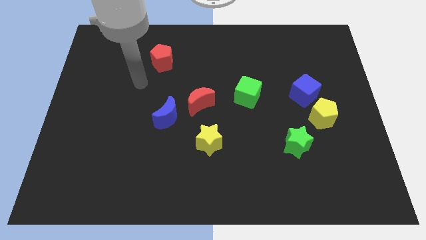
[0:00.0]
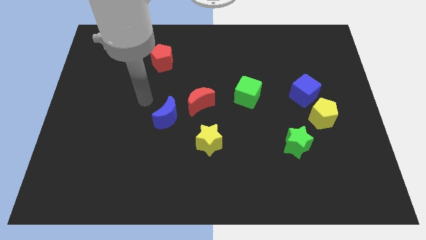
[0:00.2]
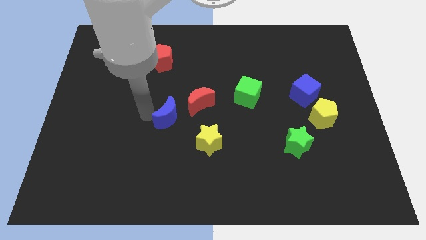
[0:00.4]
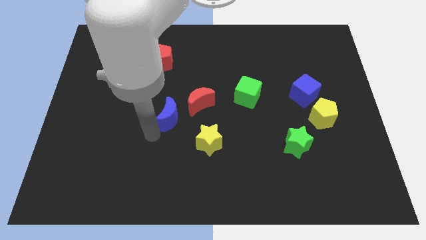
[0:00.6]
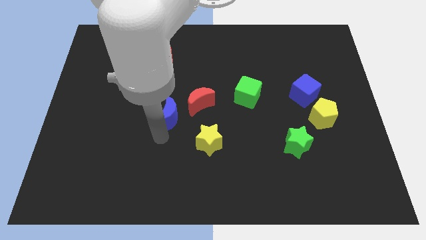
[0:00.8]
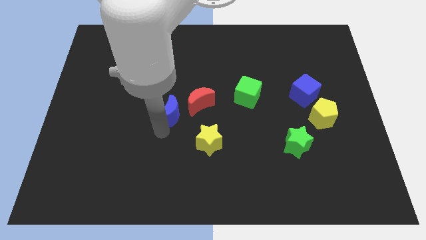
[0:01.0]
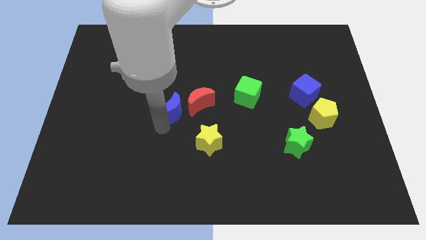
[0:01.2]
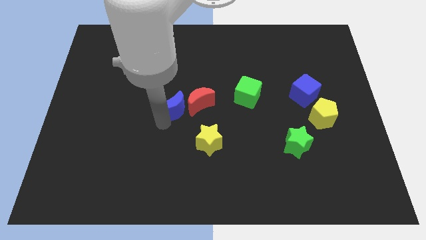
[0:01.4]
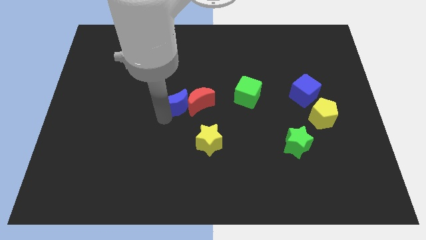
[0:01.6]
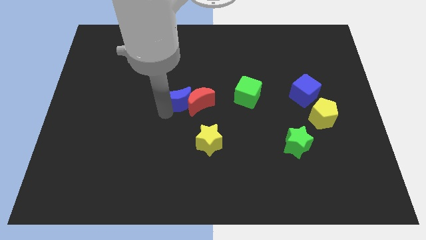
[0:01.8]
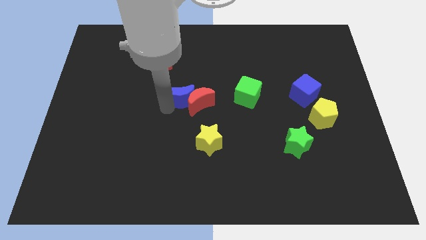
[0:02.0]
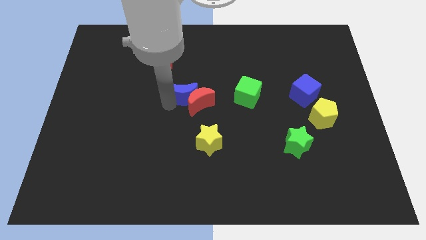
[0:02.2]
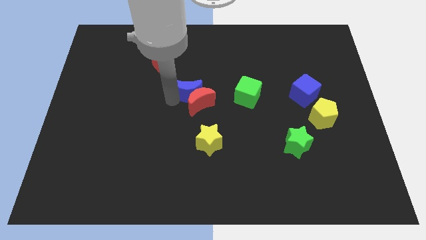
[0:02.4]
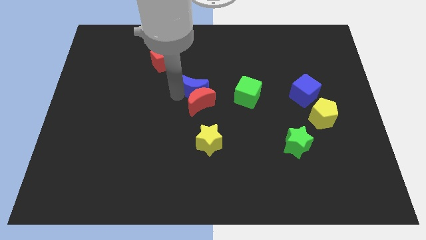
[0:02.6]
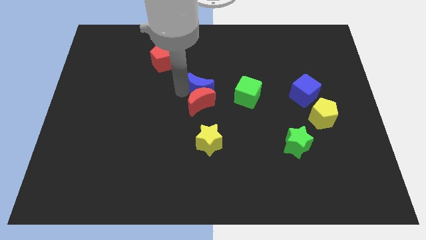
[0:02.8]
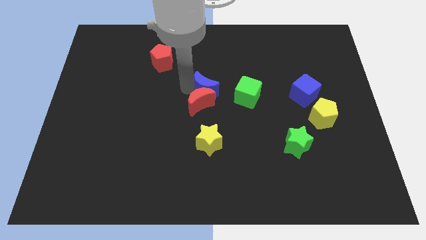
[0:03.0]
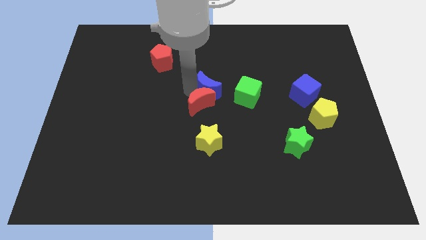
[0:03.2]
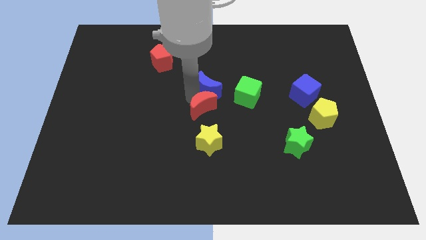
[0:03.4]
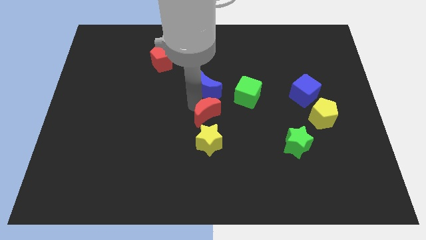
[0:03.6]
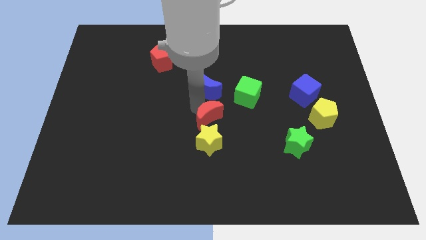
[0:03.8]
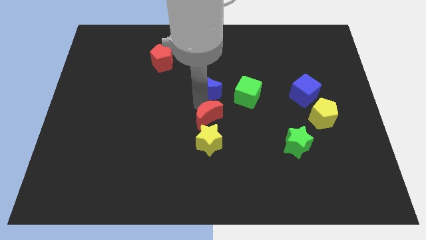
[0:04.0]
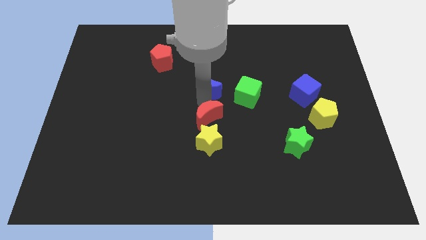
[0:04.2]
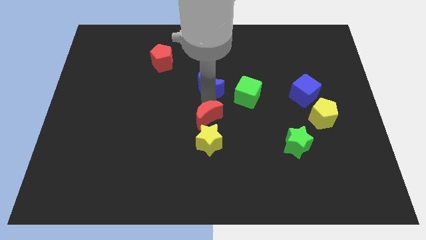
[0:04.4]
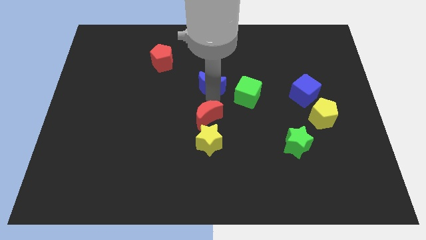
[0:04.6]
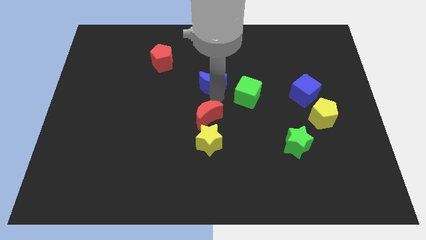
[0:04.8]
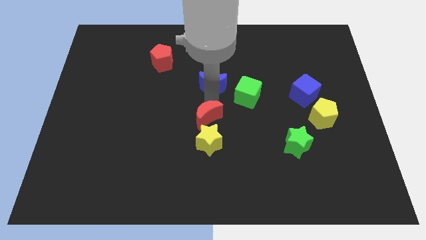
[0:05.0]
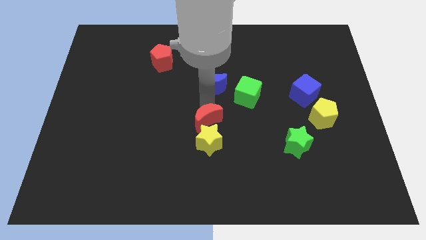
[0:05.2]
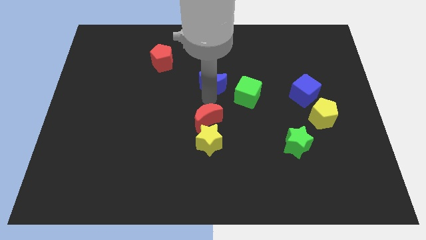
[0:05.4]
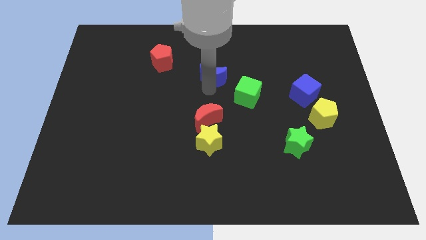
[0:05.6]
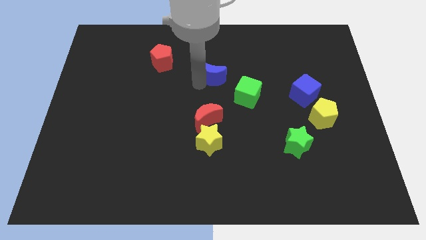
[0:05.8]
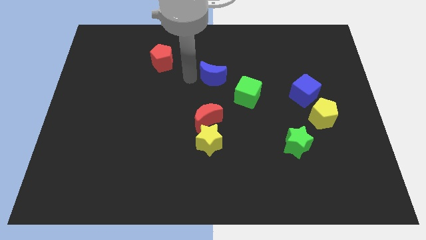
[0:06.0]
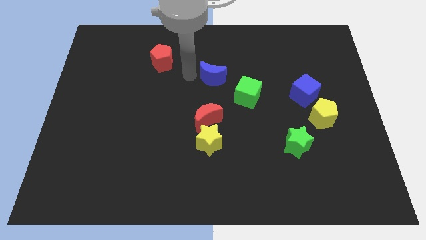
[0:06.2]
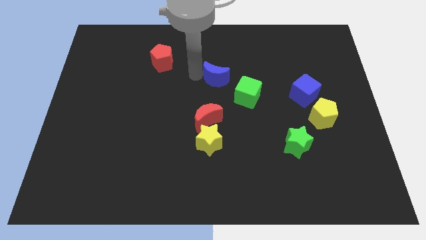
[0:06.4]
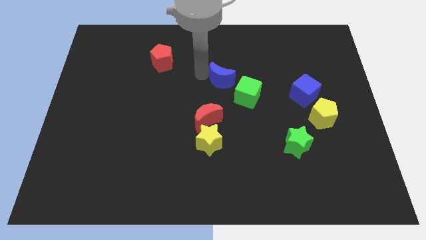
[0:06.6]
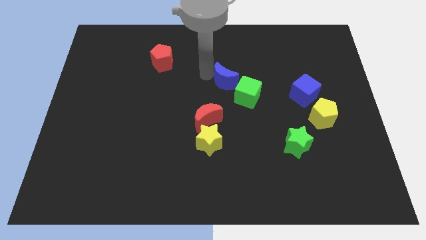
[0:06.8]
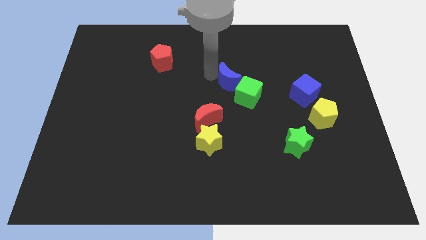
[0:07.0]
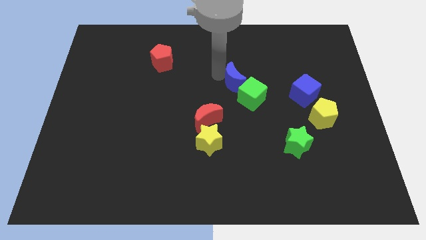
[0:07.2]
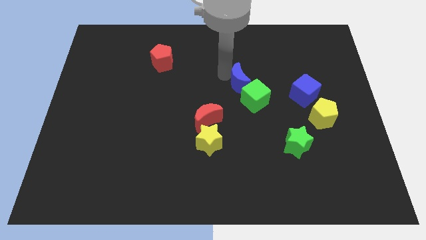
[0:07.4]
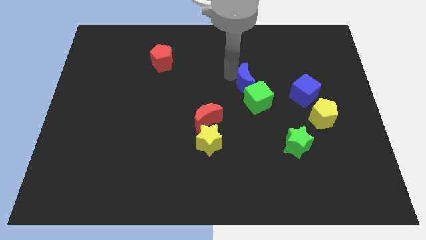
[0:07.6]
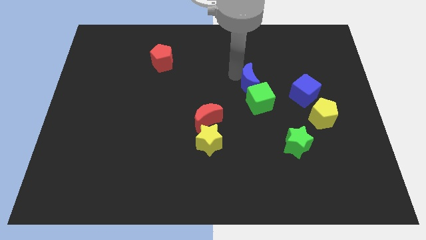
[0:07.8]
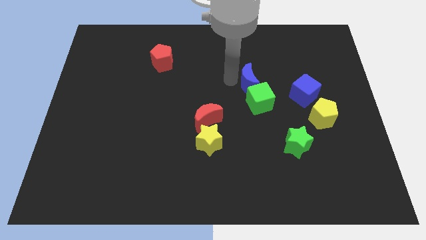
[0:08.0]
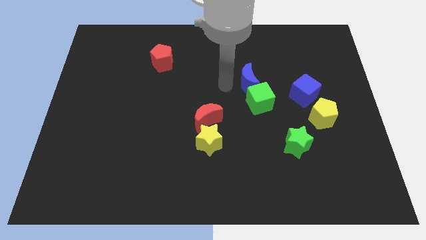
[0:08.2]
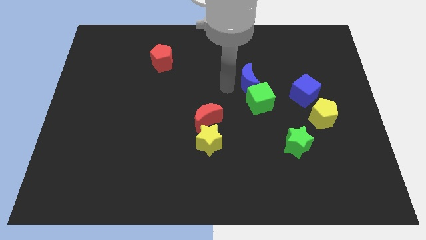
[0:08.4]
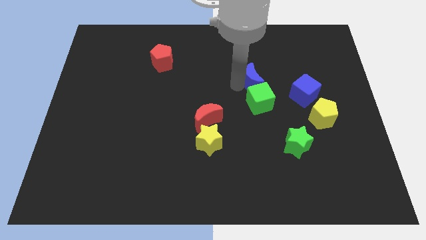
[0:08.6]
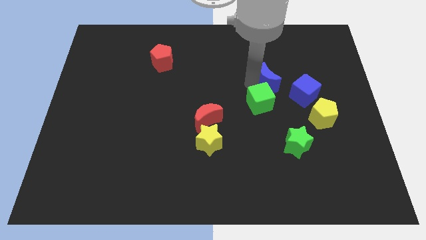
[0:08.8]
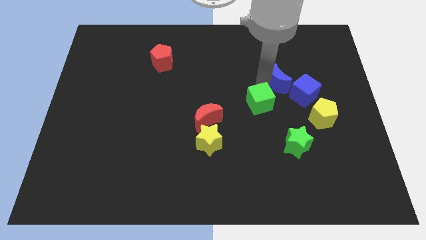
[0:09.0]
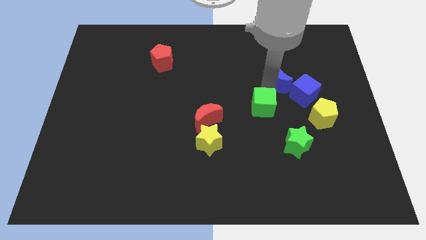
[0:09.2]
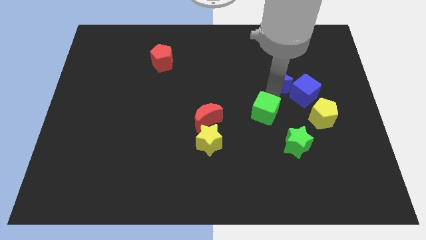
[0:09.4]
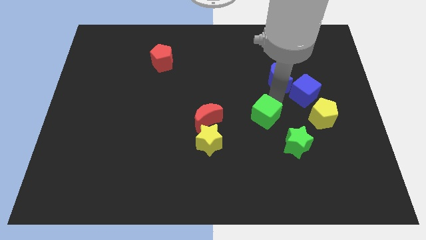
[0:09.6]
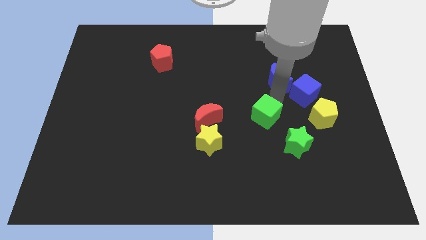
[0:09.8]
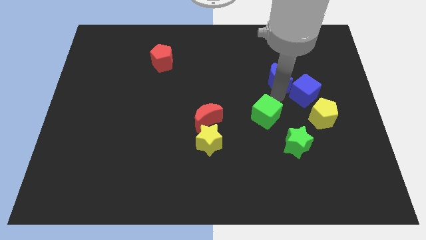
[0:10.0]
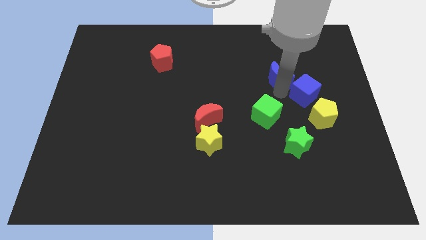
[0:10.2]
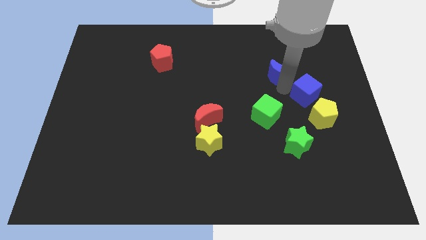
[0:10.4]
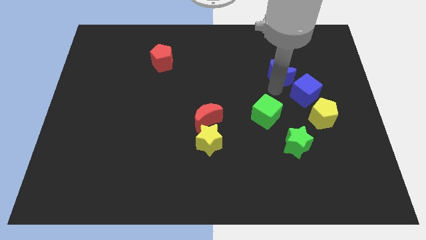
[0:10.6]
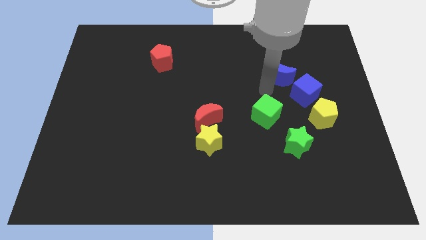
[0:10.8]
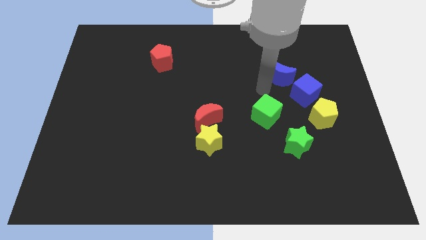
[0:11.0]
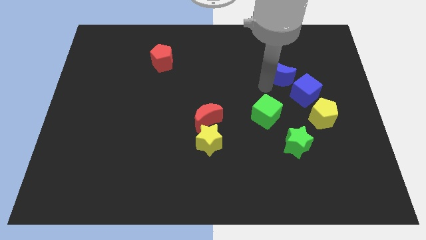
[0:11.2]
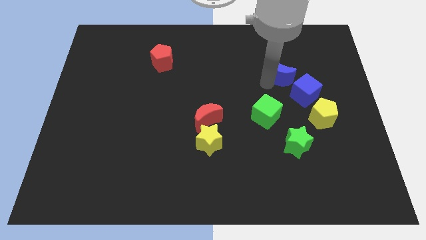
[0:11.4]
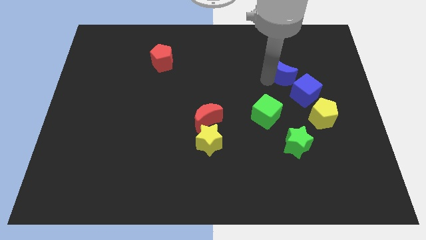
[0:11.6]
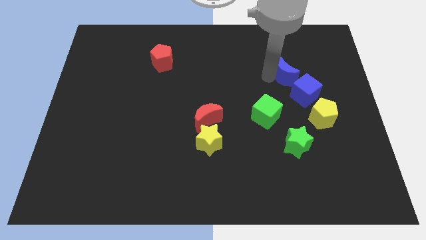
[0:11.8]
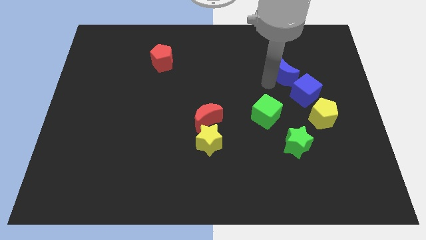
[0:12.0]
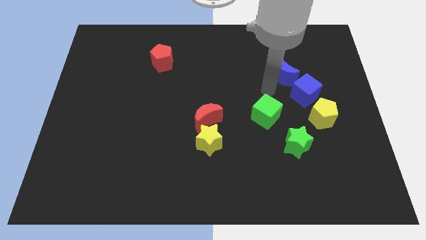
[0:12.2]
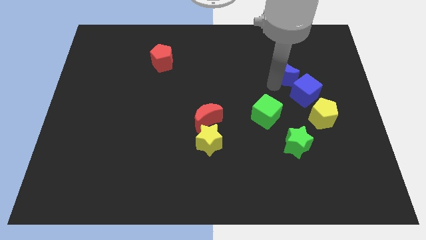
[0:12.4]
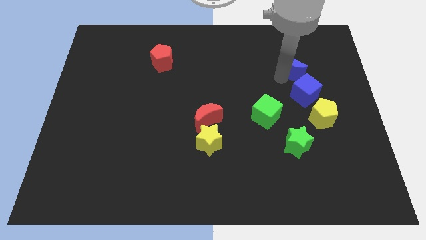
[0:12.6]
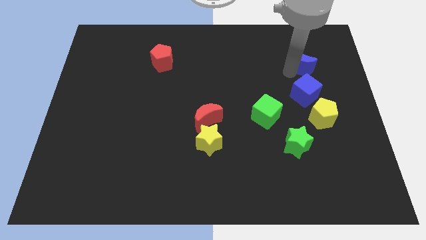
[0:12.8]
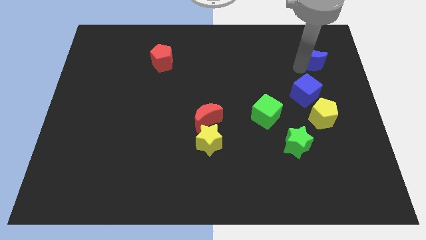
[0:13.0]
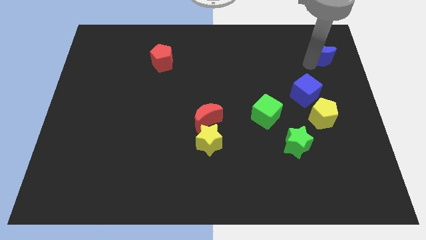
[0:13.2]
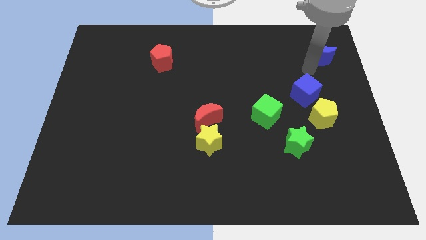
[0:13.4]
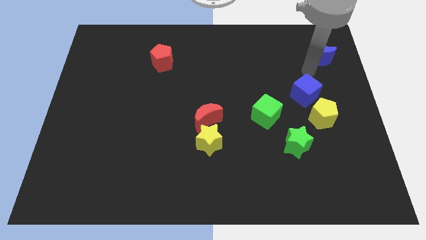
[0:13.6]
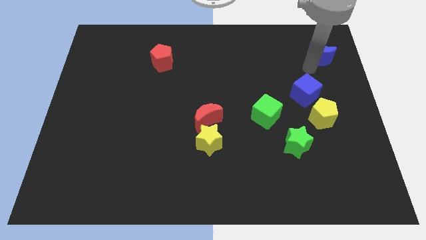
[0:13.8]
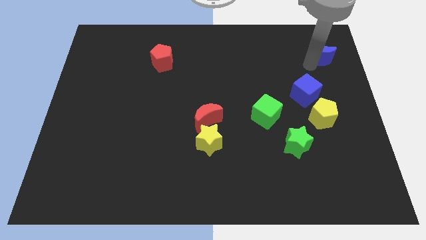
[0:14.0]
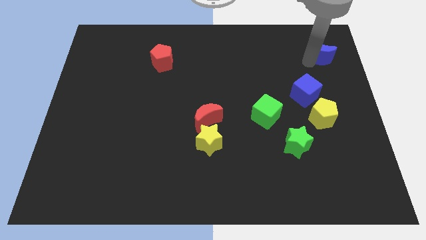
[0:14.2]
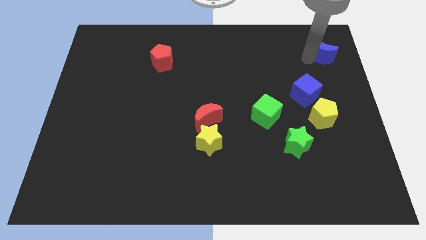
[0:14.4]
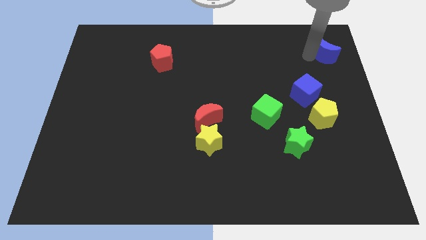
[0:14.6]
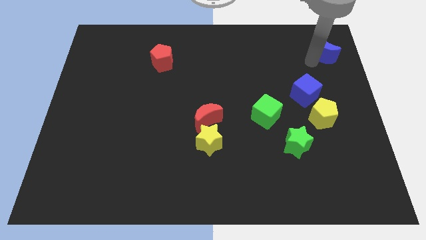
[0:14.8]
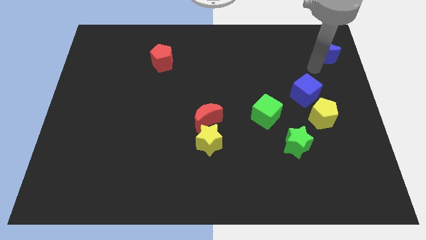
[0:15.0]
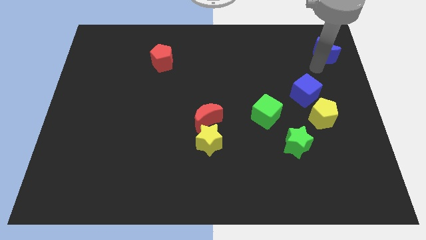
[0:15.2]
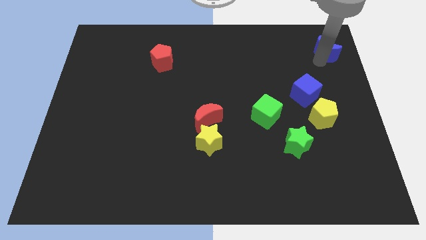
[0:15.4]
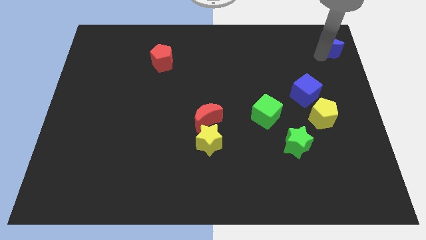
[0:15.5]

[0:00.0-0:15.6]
slide the blue moon to the upper right corner
